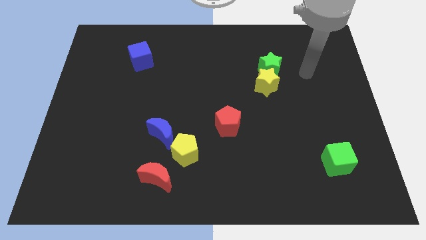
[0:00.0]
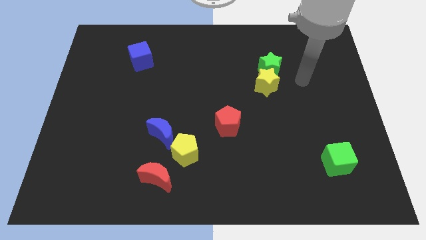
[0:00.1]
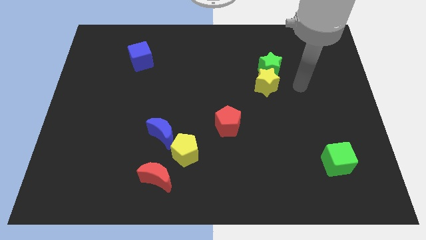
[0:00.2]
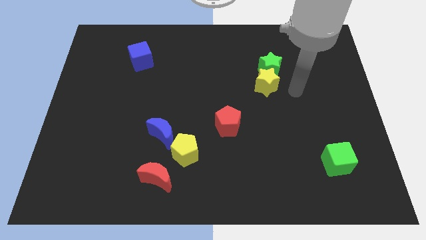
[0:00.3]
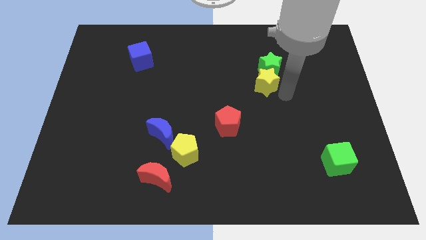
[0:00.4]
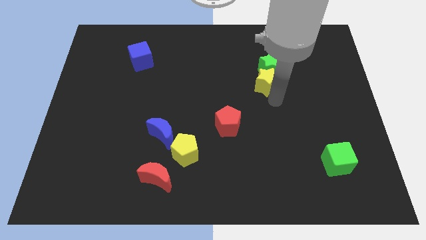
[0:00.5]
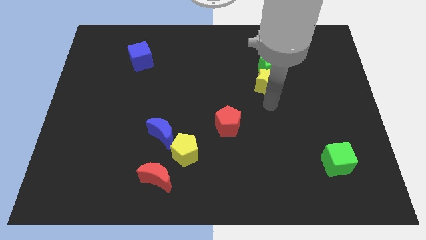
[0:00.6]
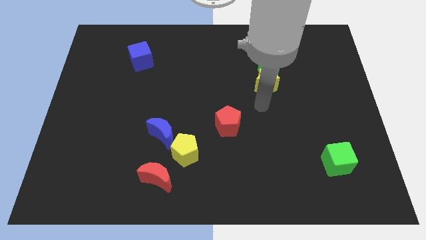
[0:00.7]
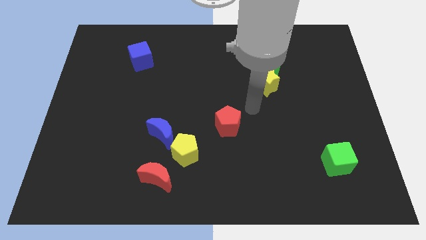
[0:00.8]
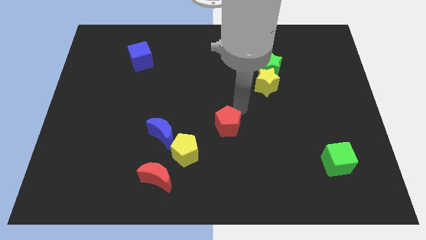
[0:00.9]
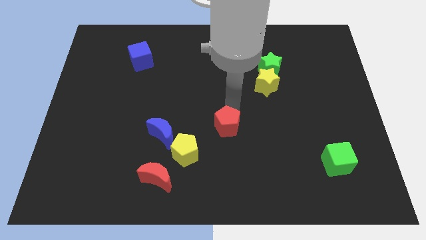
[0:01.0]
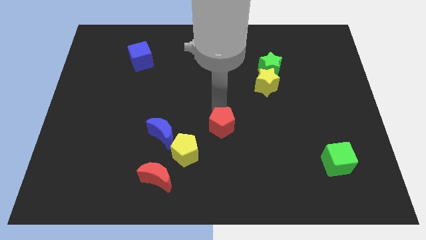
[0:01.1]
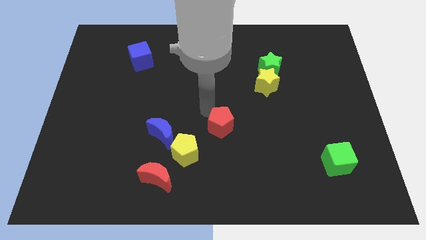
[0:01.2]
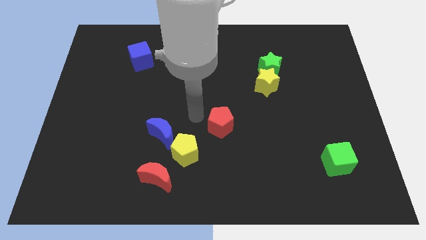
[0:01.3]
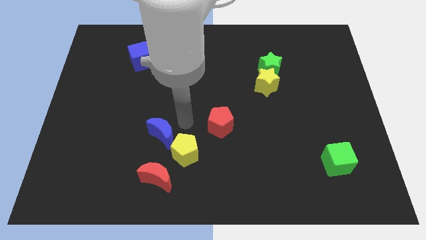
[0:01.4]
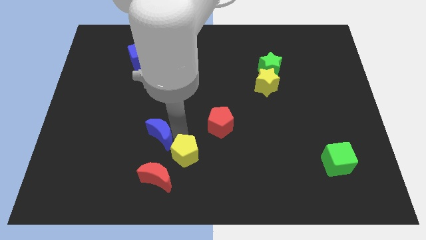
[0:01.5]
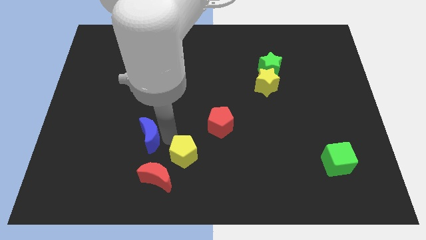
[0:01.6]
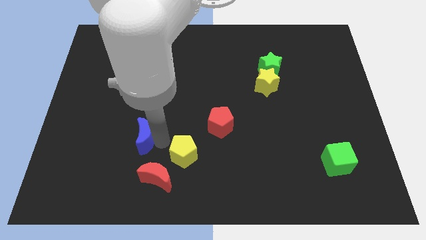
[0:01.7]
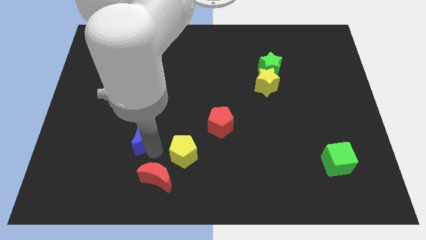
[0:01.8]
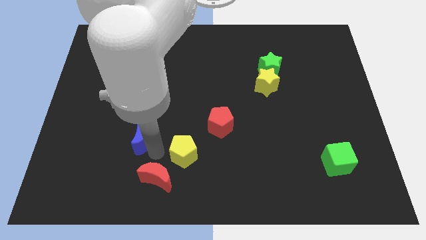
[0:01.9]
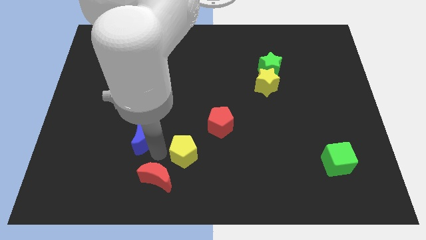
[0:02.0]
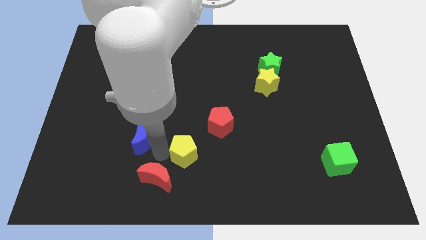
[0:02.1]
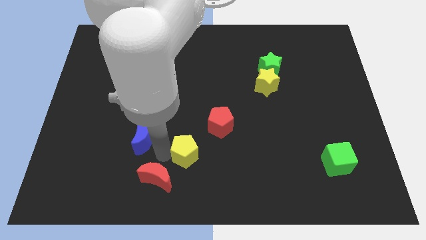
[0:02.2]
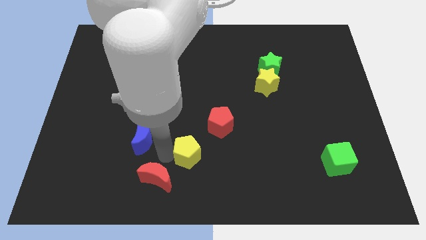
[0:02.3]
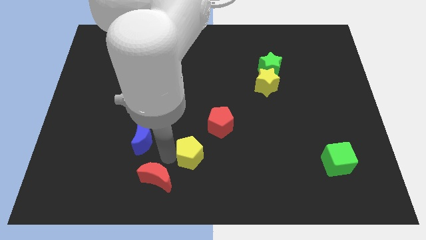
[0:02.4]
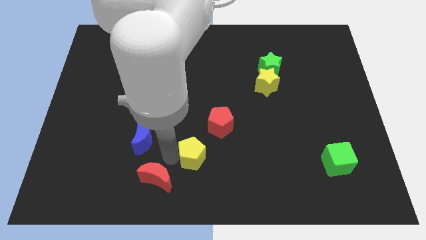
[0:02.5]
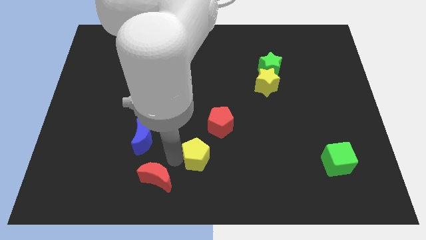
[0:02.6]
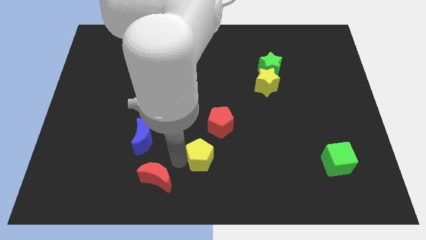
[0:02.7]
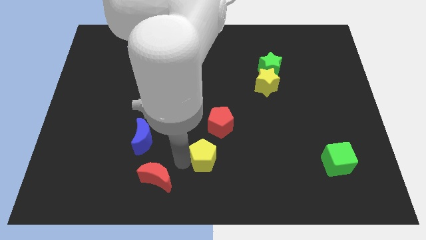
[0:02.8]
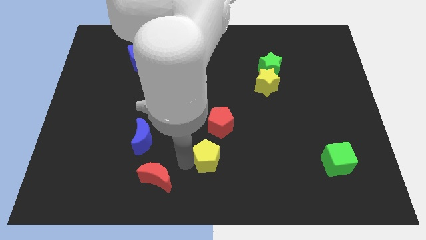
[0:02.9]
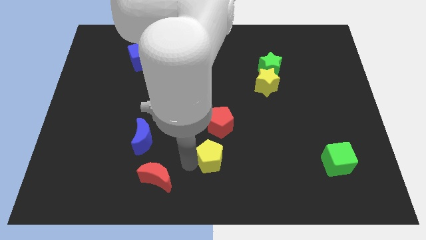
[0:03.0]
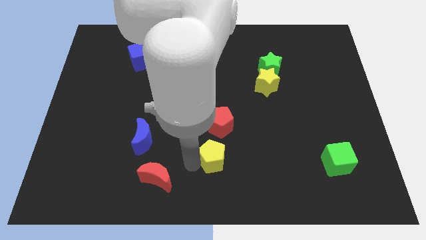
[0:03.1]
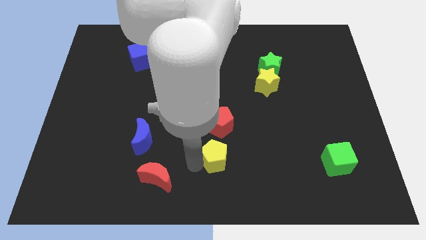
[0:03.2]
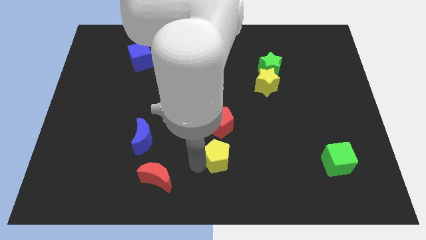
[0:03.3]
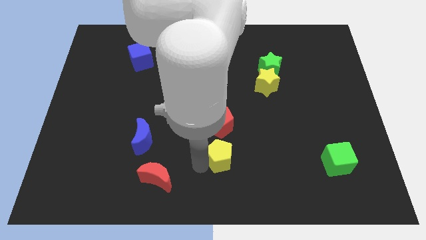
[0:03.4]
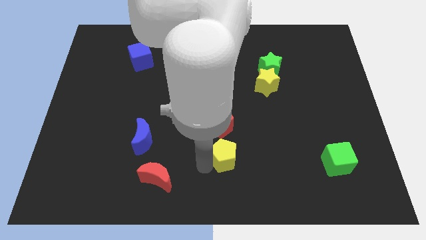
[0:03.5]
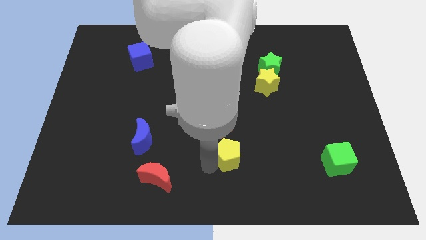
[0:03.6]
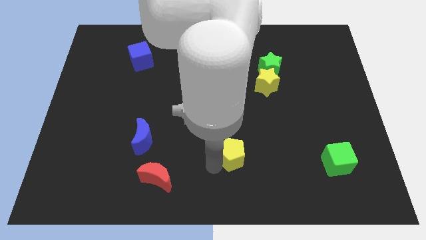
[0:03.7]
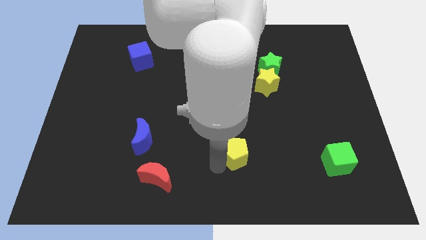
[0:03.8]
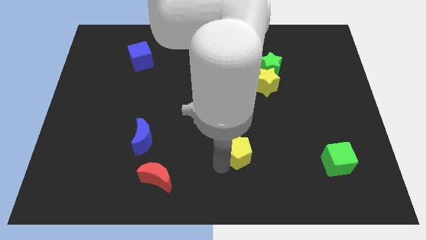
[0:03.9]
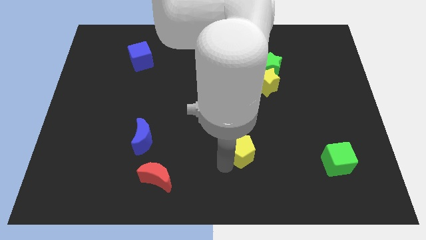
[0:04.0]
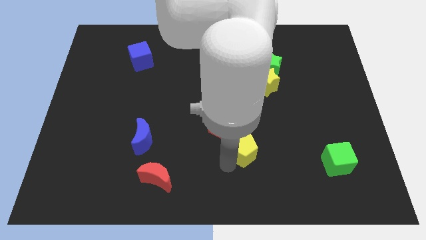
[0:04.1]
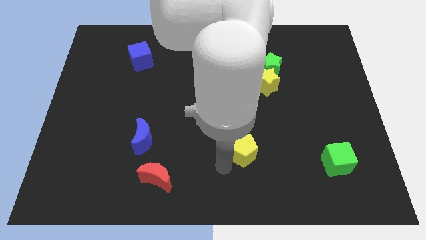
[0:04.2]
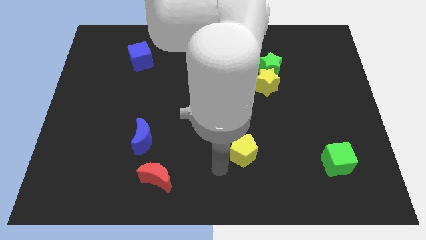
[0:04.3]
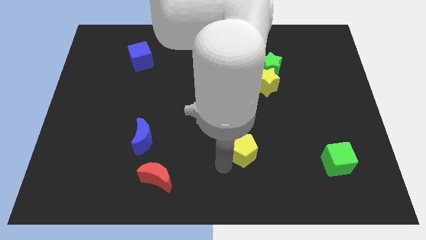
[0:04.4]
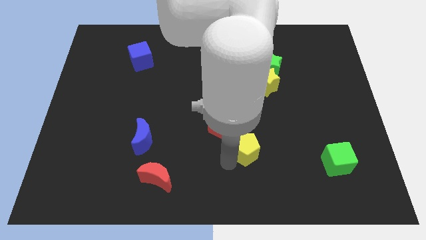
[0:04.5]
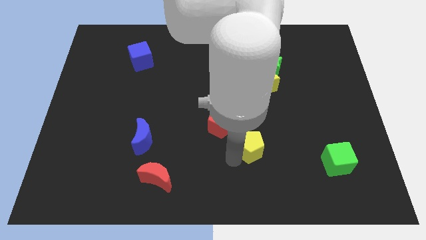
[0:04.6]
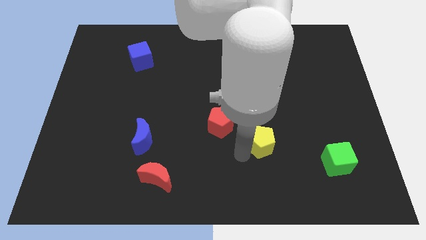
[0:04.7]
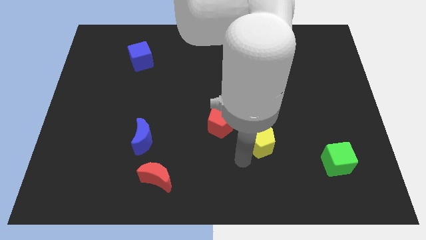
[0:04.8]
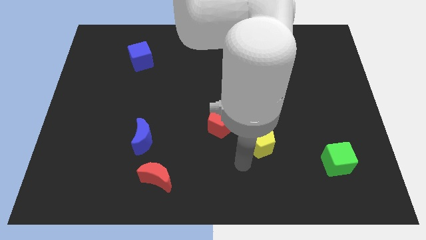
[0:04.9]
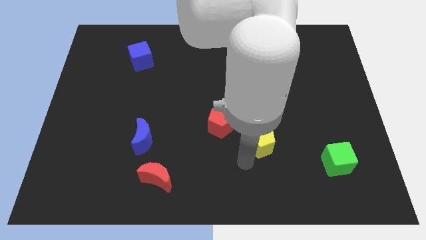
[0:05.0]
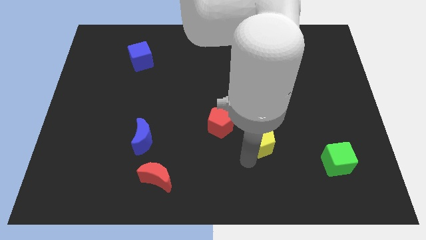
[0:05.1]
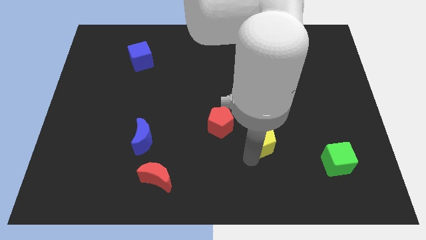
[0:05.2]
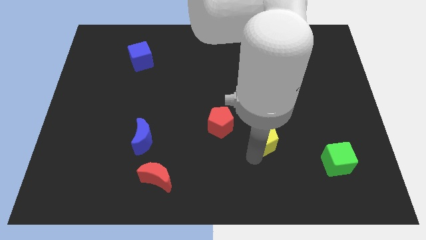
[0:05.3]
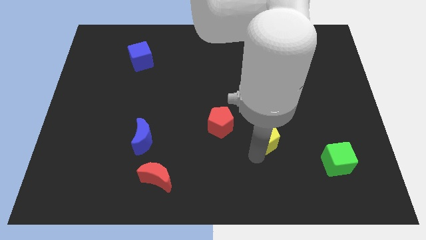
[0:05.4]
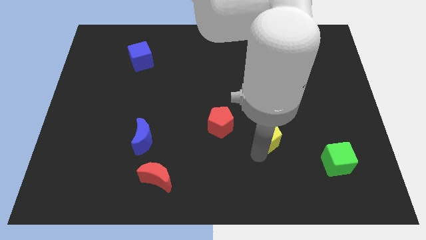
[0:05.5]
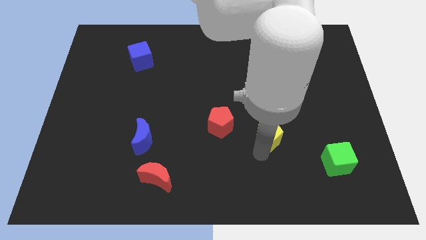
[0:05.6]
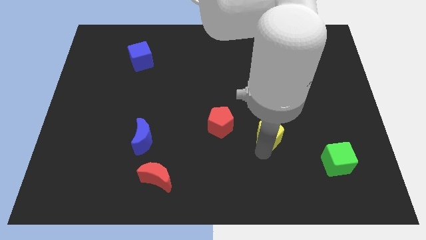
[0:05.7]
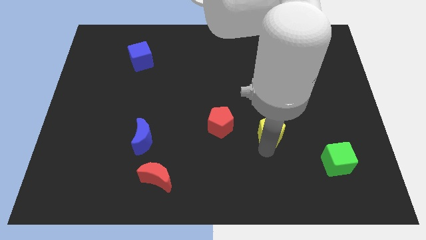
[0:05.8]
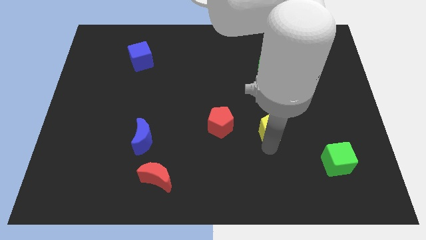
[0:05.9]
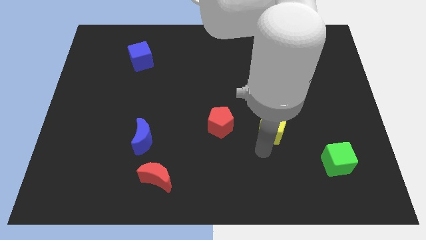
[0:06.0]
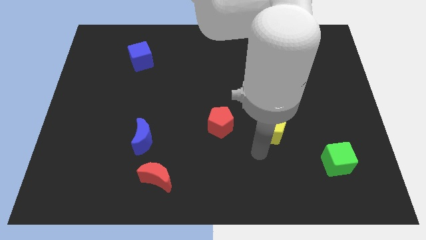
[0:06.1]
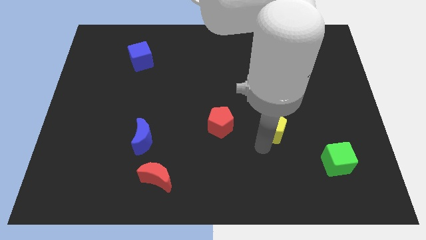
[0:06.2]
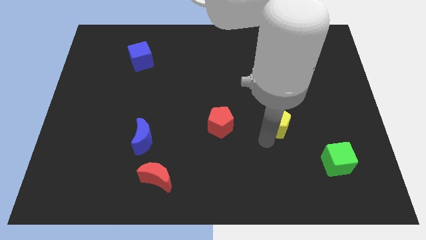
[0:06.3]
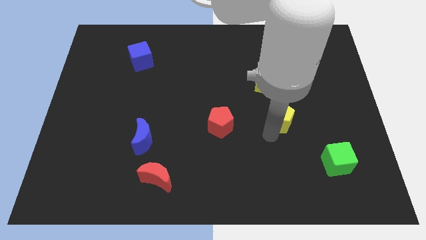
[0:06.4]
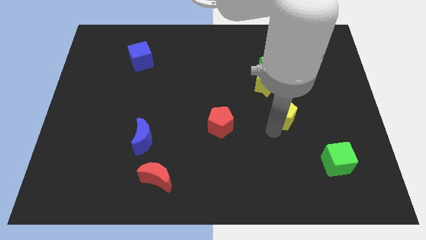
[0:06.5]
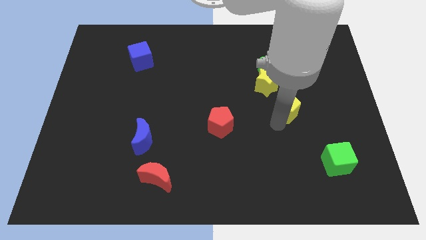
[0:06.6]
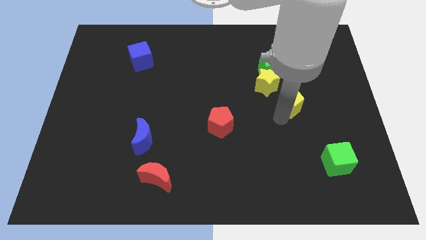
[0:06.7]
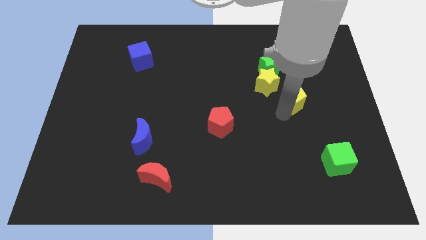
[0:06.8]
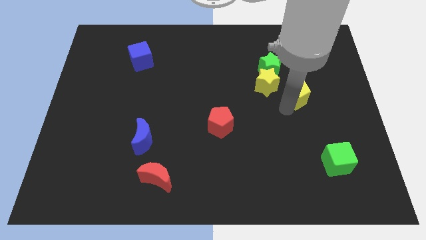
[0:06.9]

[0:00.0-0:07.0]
slide the yellow pentagon right of the yellow star
